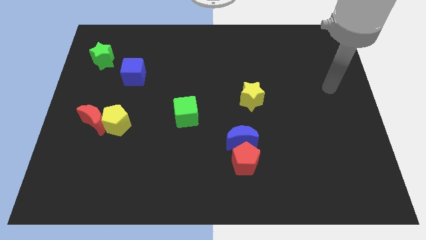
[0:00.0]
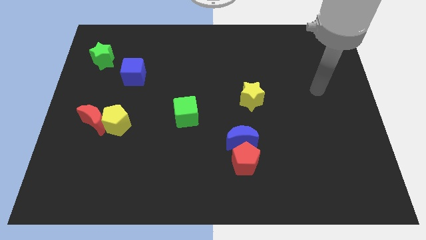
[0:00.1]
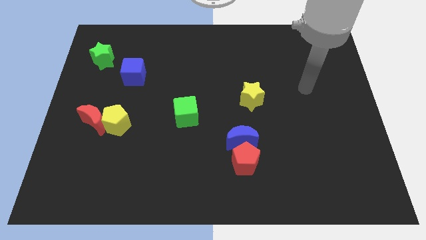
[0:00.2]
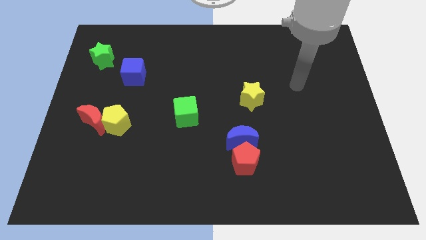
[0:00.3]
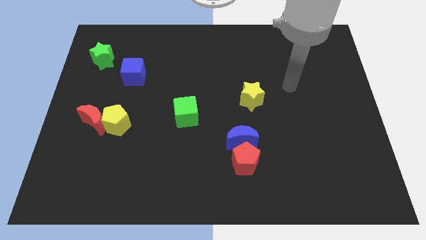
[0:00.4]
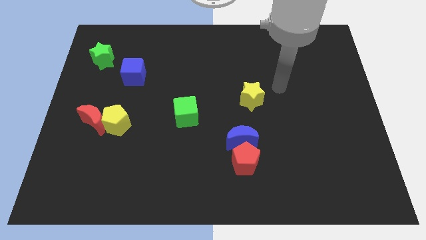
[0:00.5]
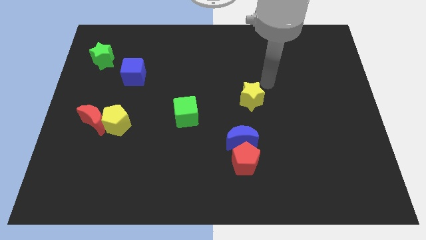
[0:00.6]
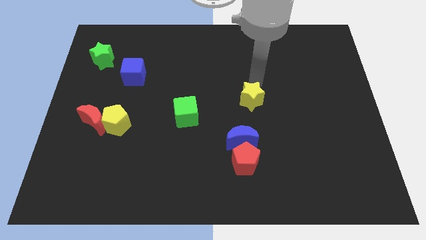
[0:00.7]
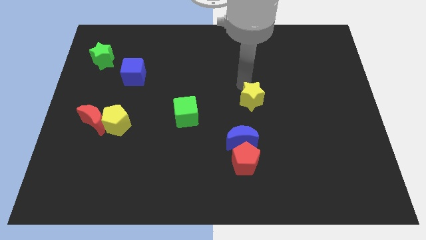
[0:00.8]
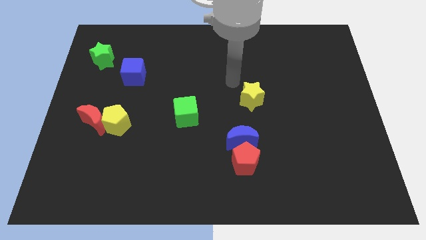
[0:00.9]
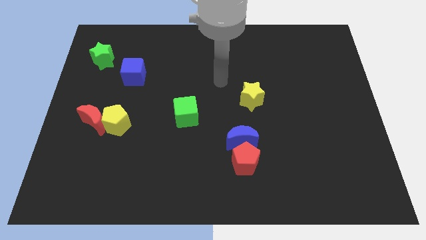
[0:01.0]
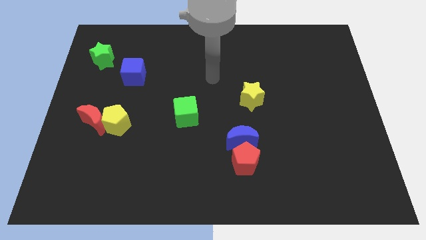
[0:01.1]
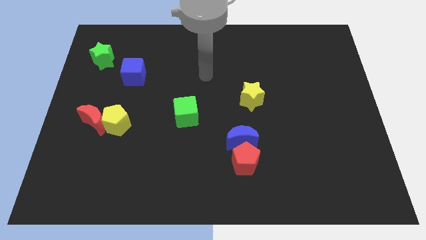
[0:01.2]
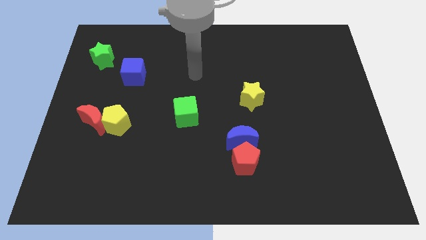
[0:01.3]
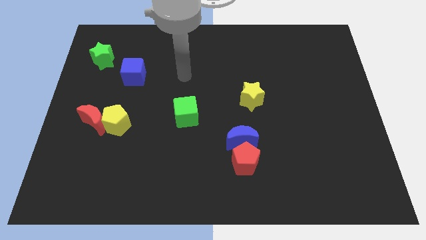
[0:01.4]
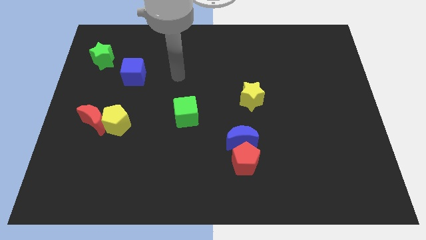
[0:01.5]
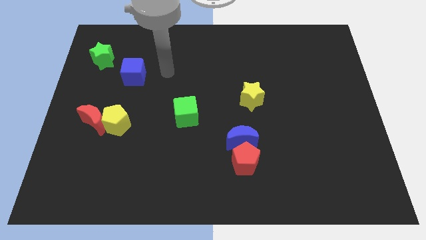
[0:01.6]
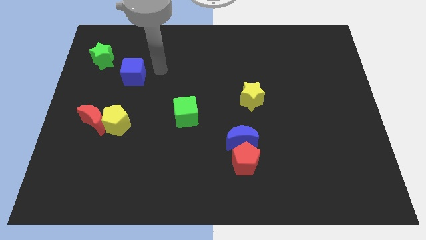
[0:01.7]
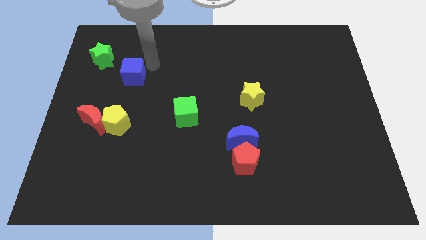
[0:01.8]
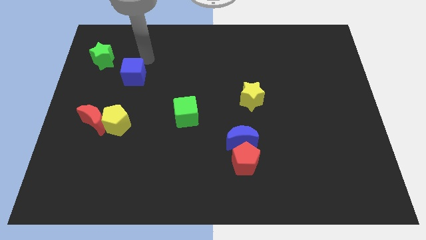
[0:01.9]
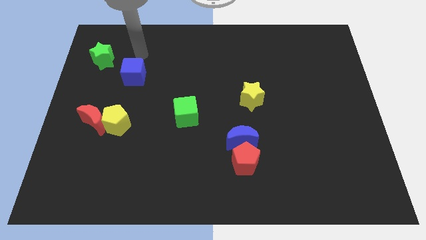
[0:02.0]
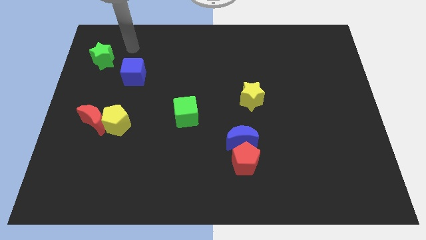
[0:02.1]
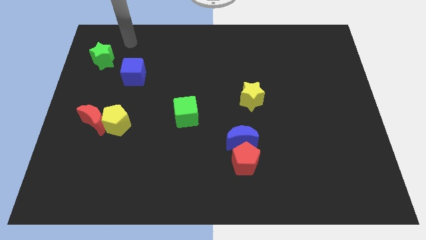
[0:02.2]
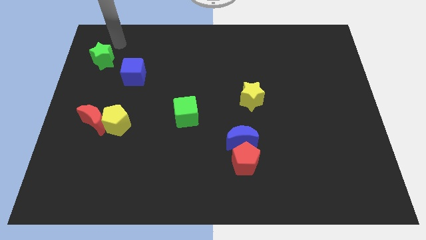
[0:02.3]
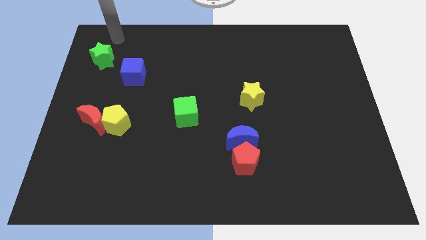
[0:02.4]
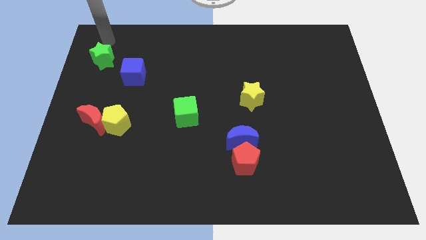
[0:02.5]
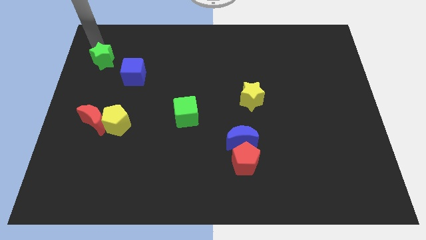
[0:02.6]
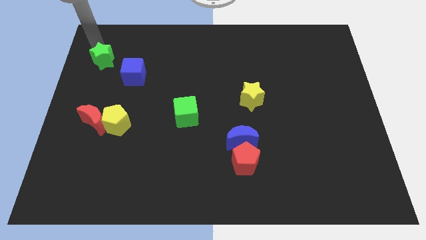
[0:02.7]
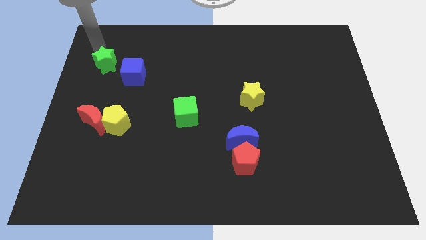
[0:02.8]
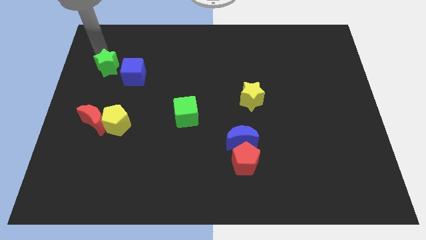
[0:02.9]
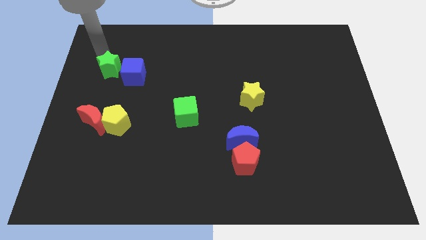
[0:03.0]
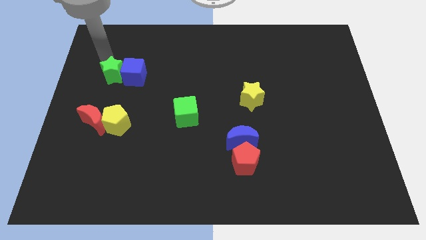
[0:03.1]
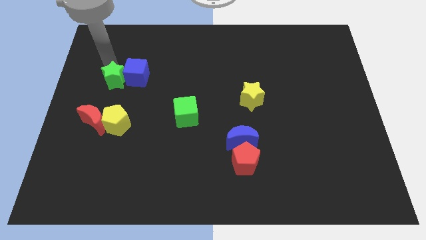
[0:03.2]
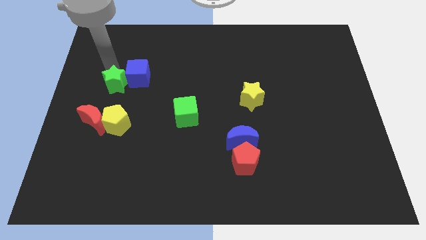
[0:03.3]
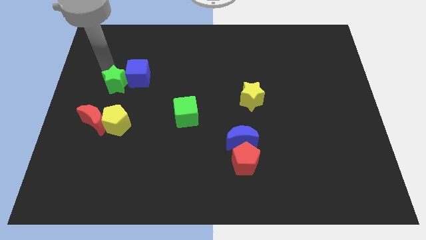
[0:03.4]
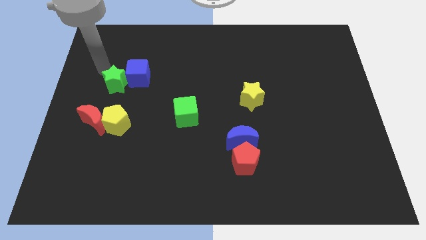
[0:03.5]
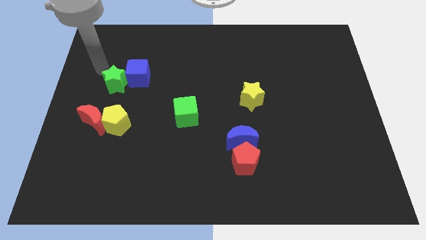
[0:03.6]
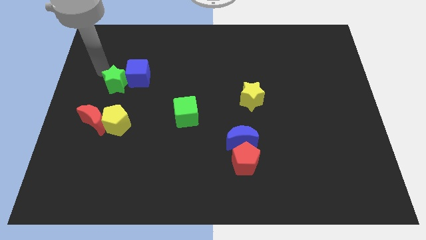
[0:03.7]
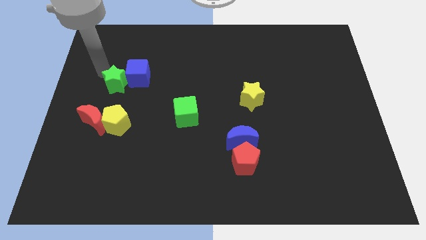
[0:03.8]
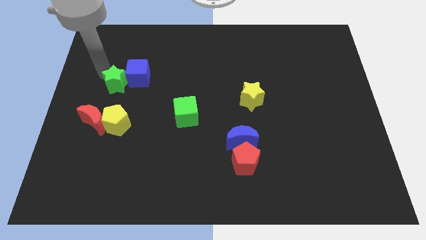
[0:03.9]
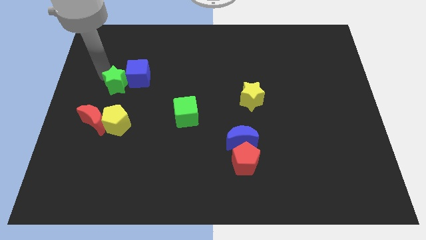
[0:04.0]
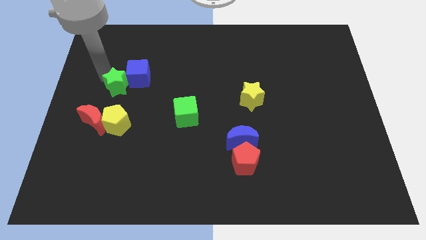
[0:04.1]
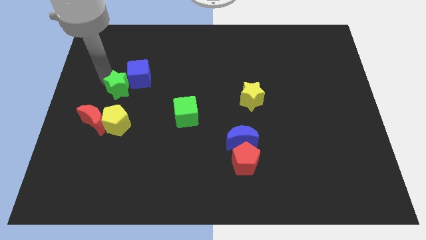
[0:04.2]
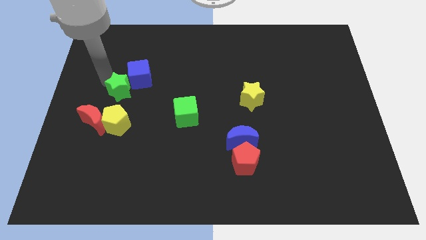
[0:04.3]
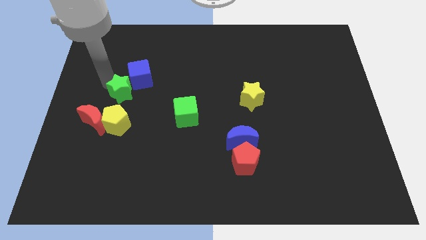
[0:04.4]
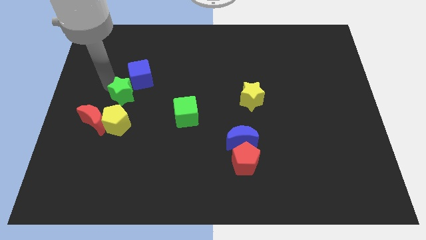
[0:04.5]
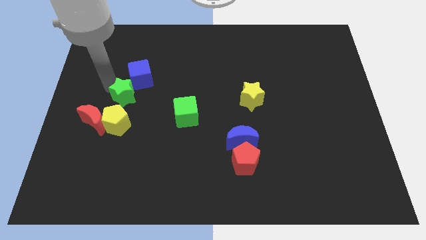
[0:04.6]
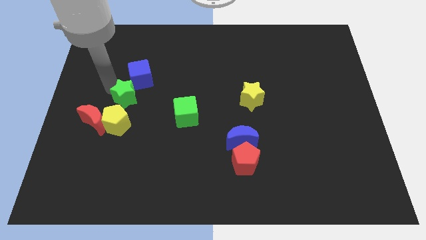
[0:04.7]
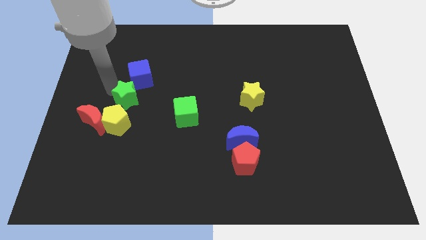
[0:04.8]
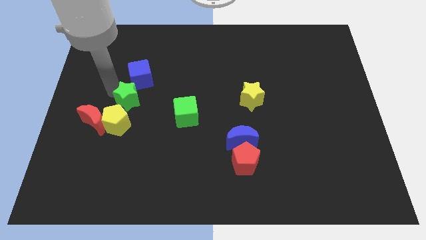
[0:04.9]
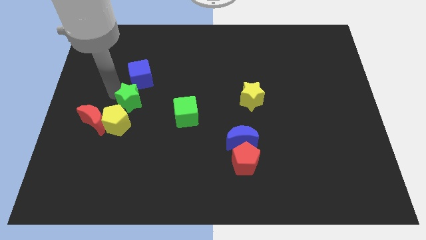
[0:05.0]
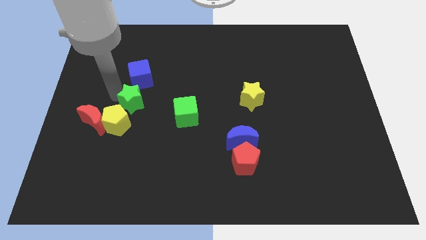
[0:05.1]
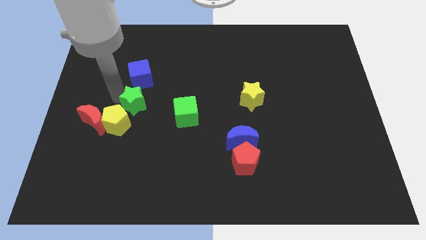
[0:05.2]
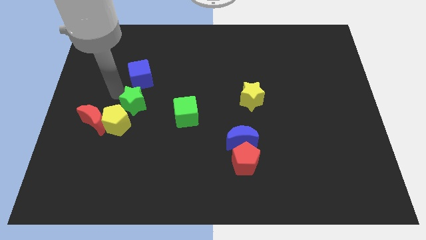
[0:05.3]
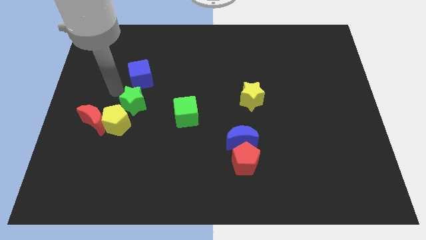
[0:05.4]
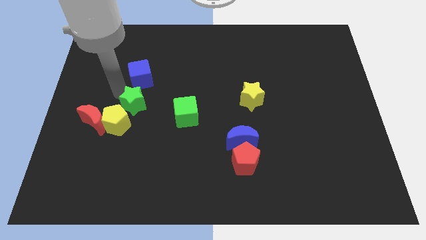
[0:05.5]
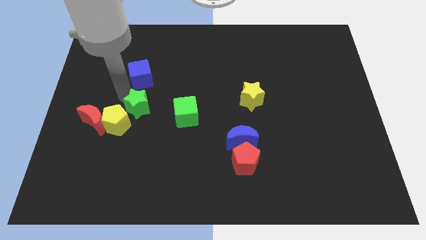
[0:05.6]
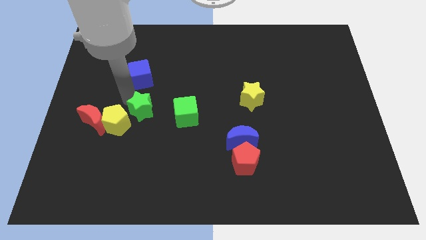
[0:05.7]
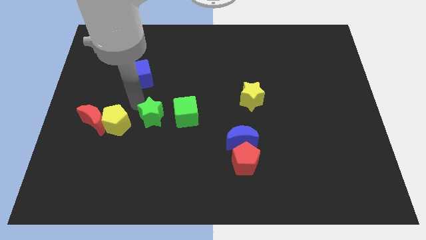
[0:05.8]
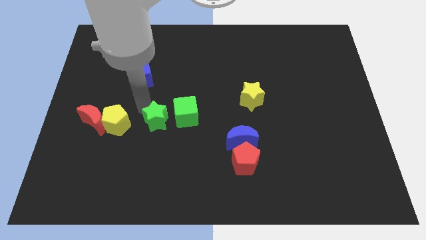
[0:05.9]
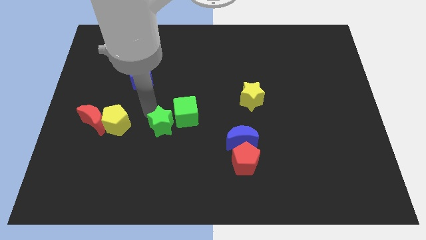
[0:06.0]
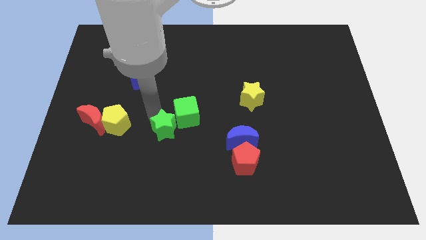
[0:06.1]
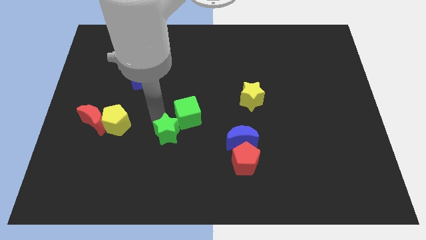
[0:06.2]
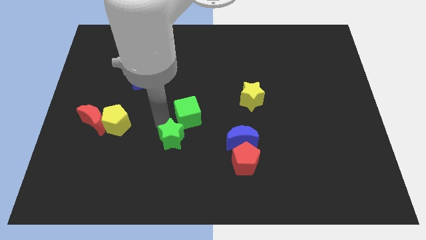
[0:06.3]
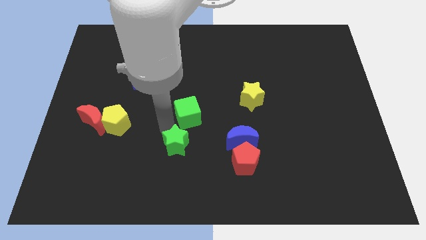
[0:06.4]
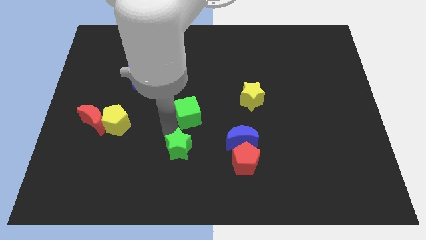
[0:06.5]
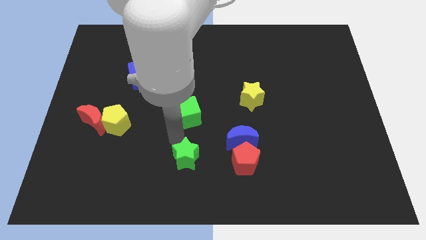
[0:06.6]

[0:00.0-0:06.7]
move the green star to the bottom
